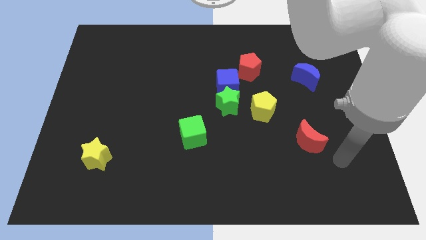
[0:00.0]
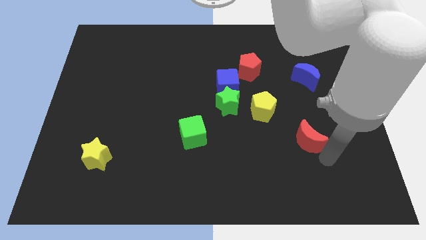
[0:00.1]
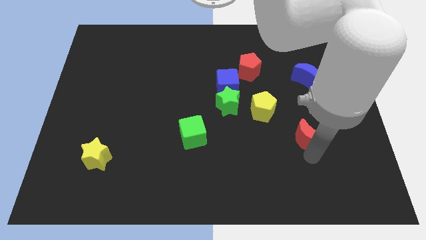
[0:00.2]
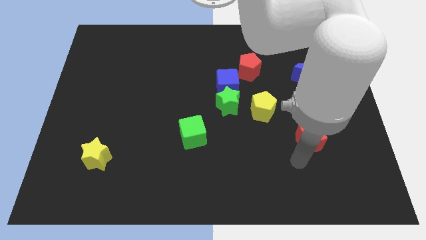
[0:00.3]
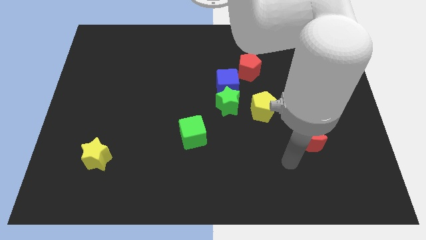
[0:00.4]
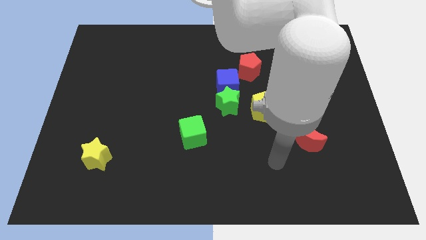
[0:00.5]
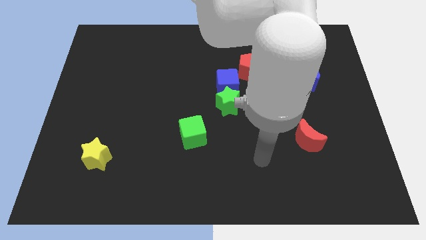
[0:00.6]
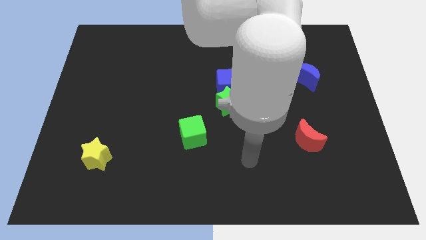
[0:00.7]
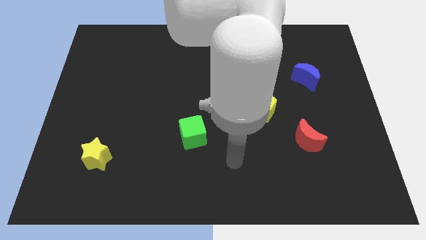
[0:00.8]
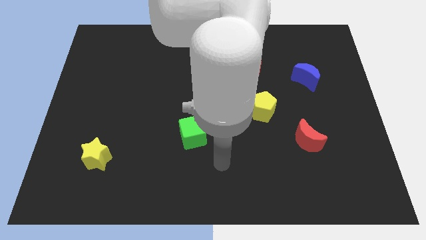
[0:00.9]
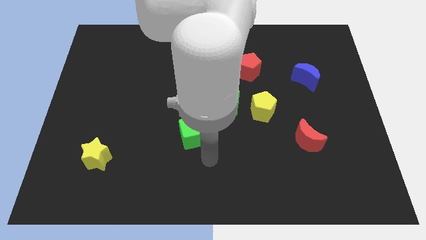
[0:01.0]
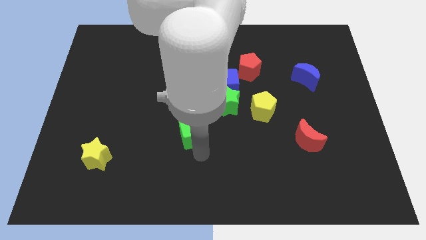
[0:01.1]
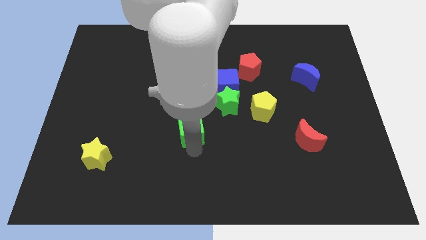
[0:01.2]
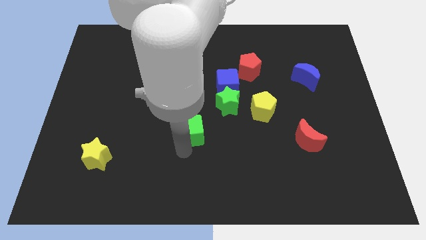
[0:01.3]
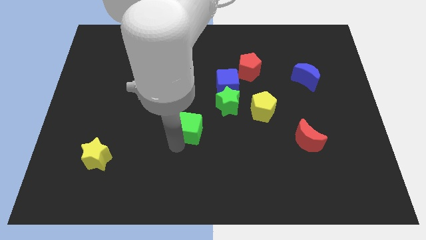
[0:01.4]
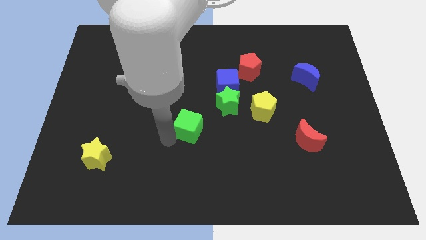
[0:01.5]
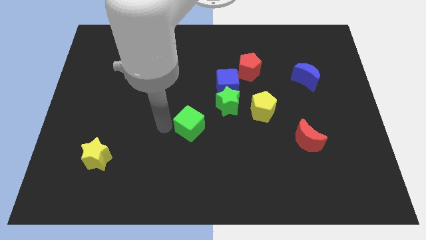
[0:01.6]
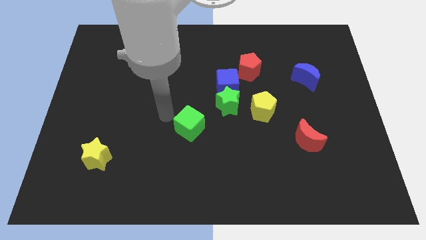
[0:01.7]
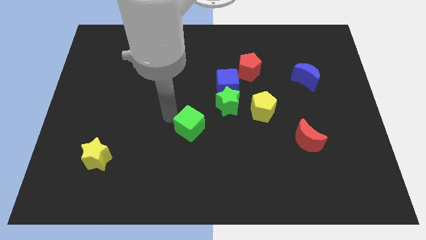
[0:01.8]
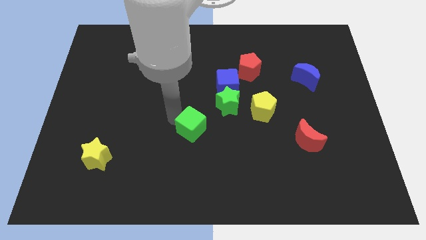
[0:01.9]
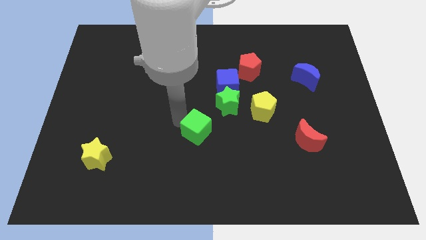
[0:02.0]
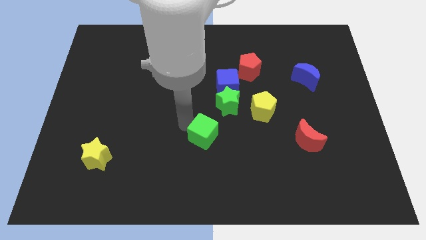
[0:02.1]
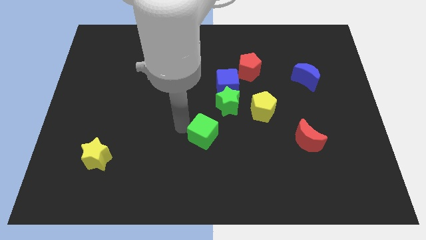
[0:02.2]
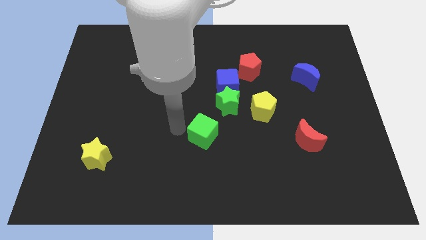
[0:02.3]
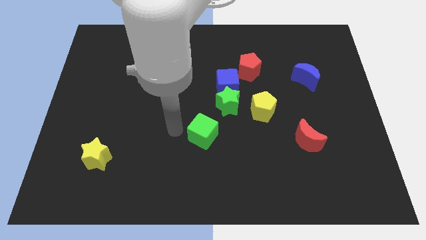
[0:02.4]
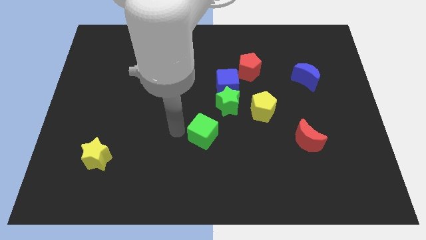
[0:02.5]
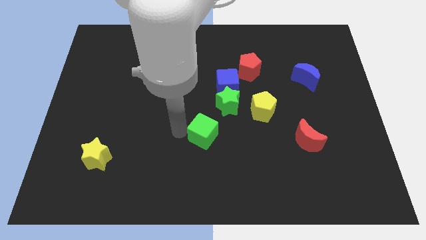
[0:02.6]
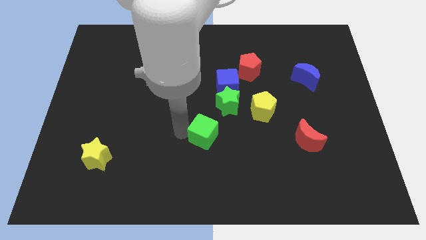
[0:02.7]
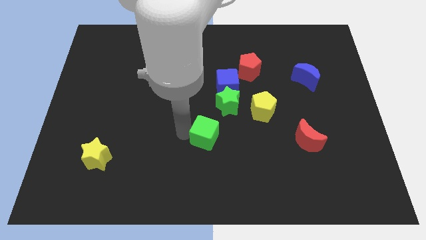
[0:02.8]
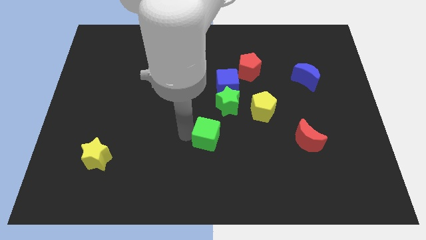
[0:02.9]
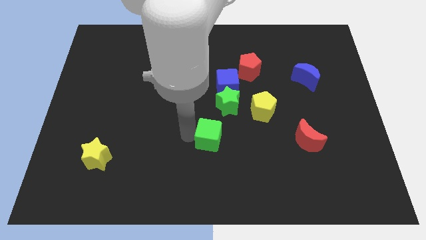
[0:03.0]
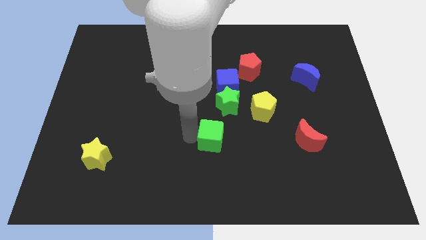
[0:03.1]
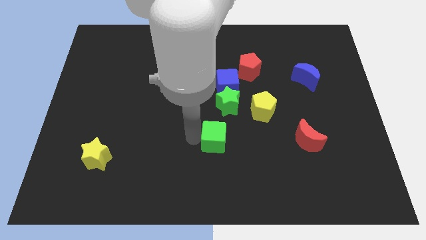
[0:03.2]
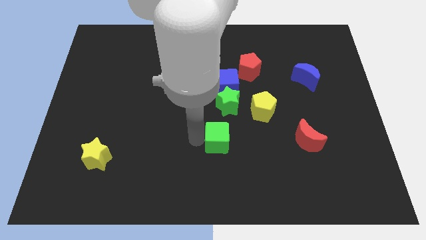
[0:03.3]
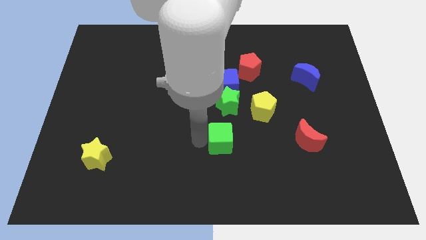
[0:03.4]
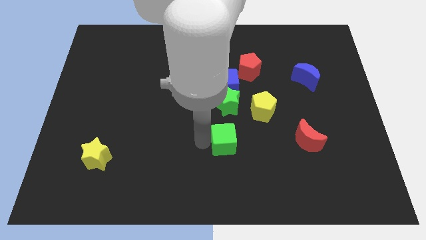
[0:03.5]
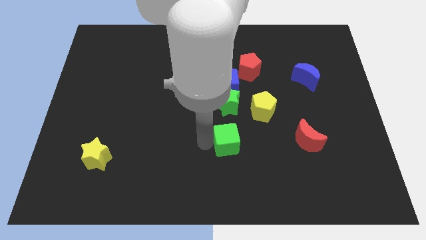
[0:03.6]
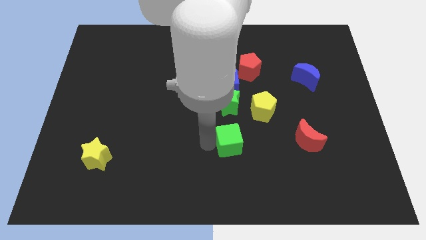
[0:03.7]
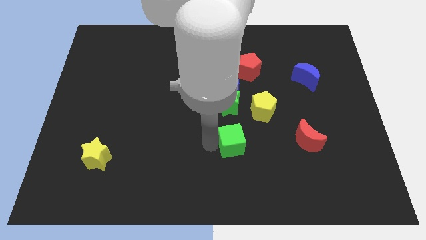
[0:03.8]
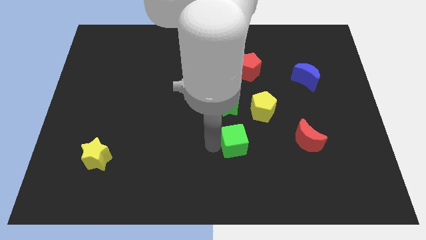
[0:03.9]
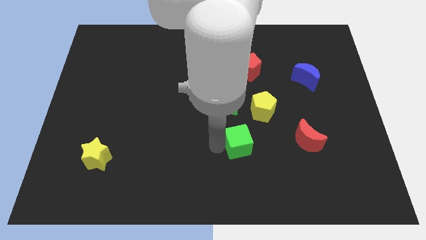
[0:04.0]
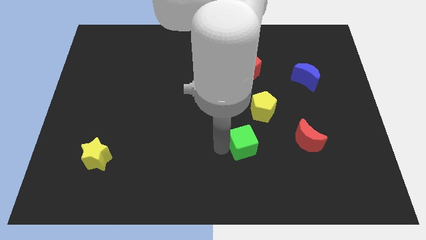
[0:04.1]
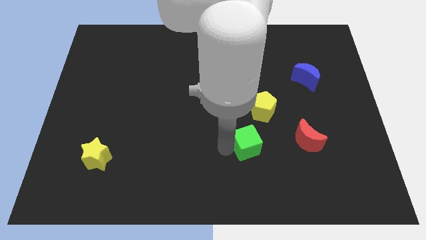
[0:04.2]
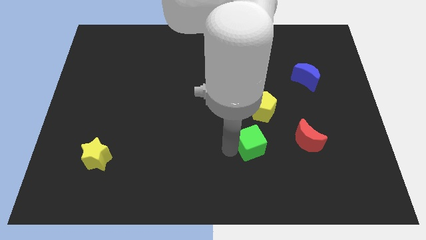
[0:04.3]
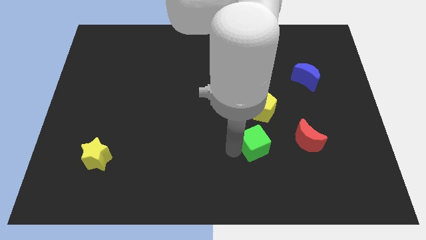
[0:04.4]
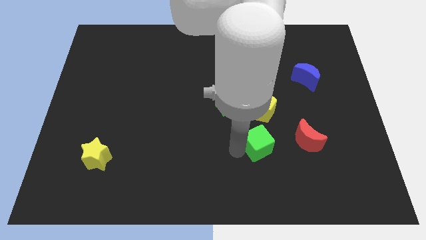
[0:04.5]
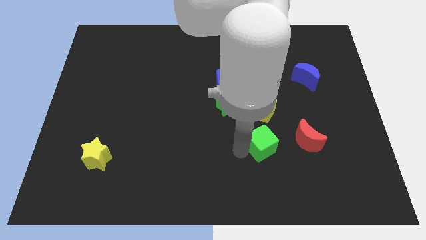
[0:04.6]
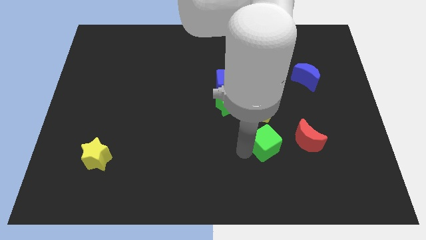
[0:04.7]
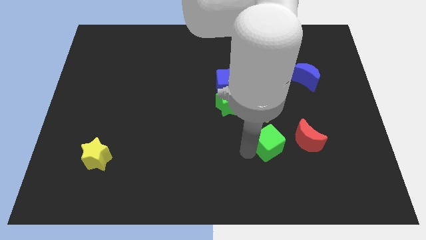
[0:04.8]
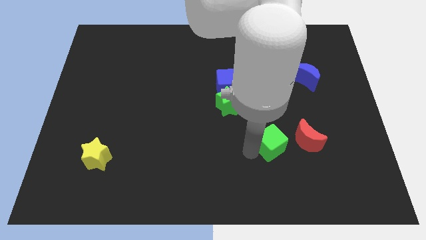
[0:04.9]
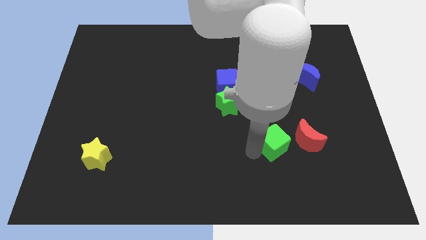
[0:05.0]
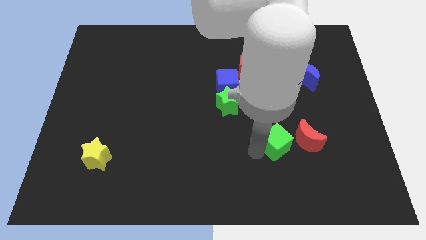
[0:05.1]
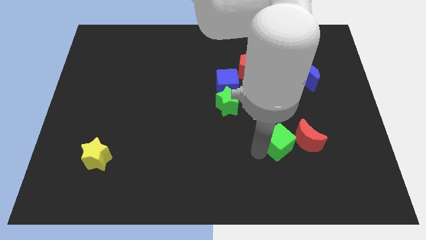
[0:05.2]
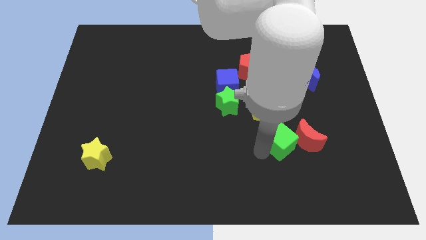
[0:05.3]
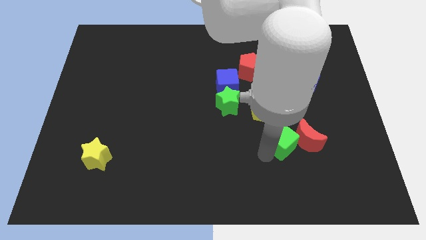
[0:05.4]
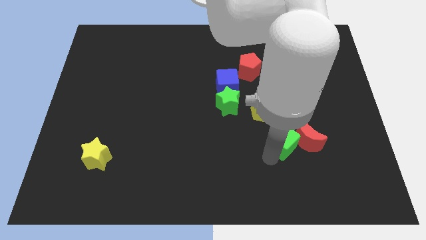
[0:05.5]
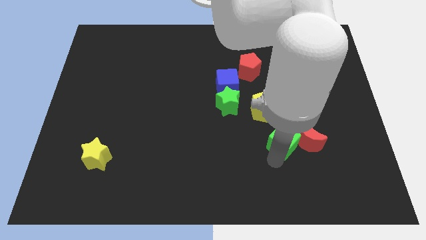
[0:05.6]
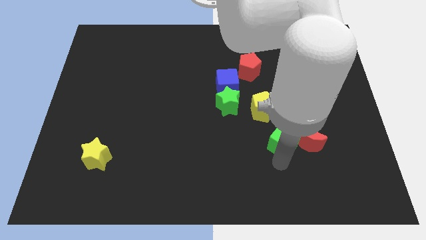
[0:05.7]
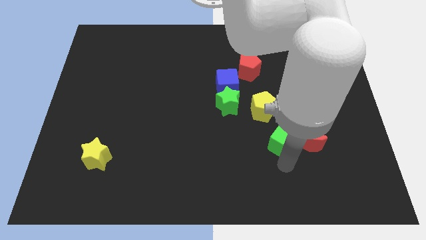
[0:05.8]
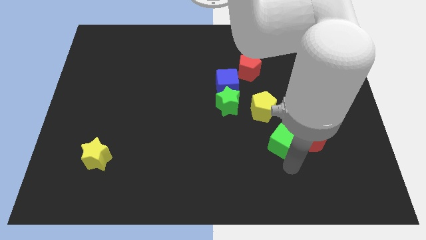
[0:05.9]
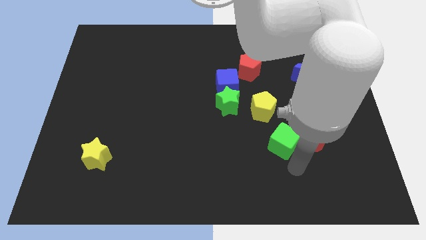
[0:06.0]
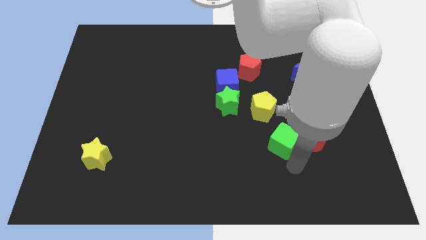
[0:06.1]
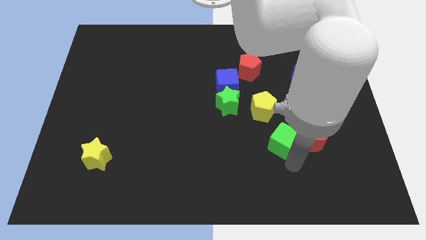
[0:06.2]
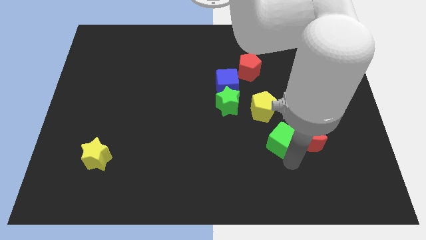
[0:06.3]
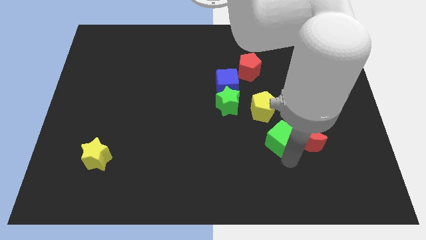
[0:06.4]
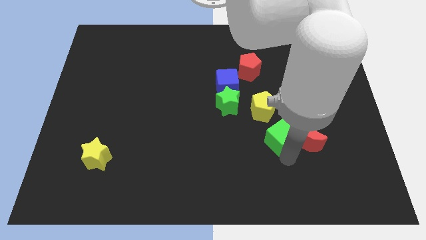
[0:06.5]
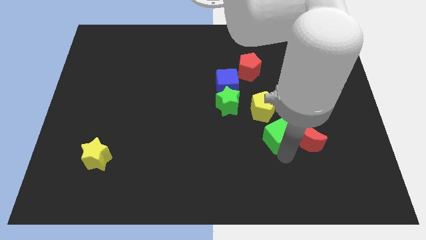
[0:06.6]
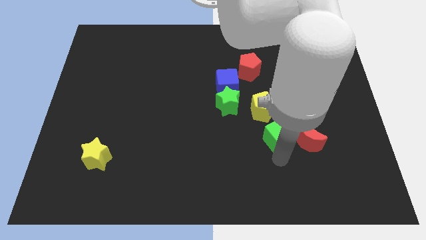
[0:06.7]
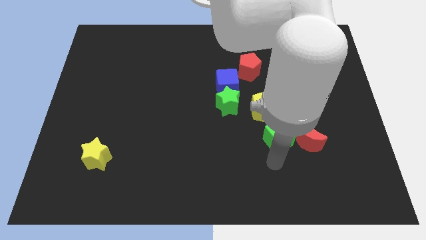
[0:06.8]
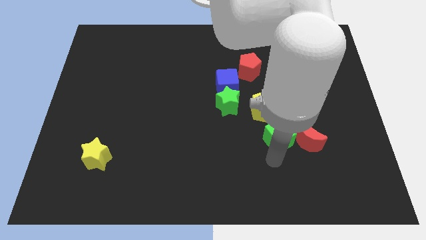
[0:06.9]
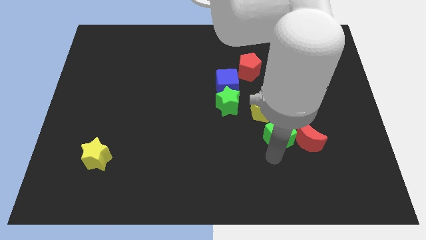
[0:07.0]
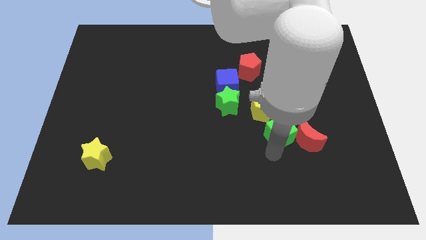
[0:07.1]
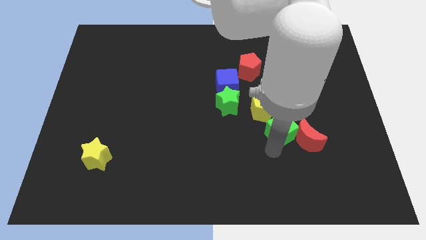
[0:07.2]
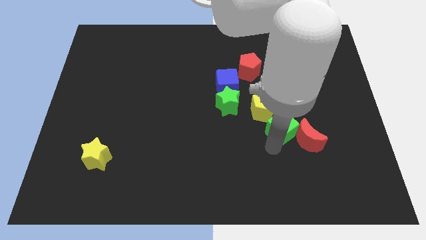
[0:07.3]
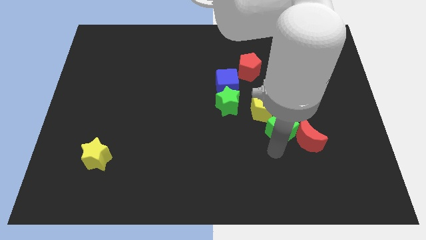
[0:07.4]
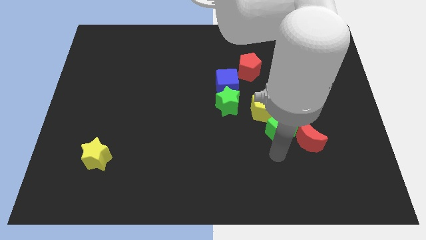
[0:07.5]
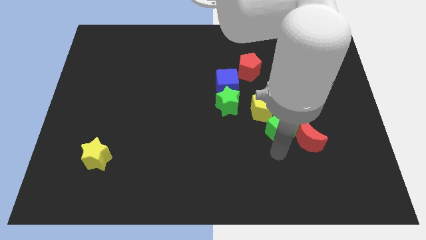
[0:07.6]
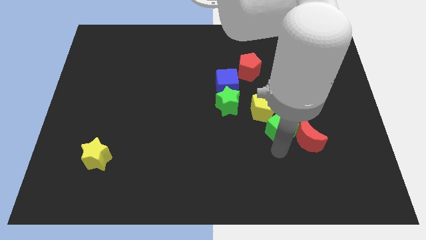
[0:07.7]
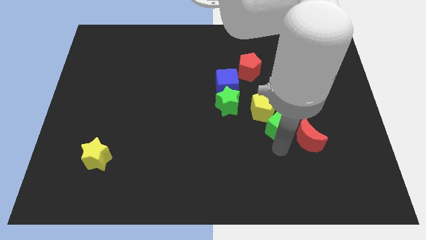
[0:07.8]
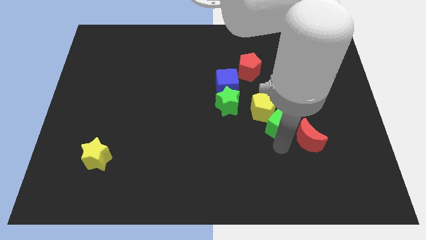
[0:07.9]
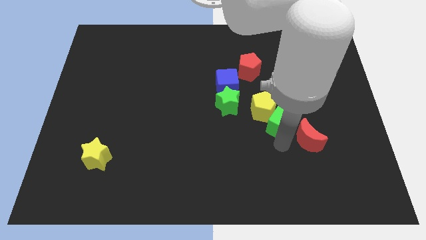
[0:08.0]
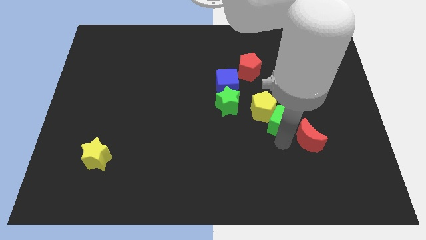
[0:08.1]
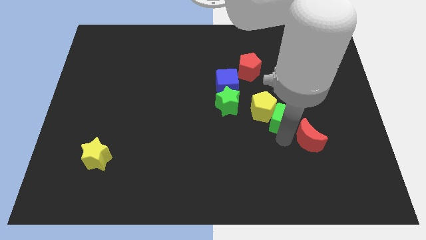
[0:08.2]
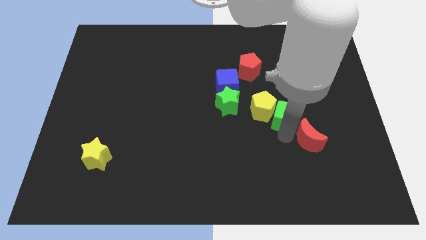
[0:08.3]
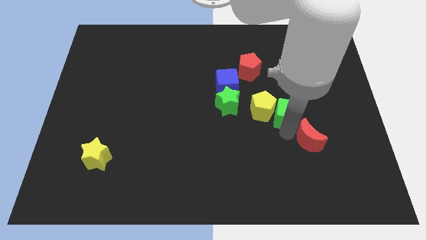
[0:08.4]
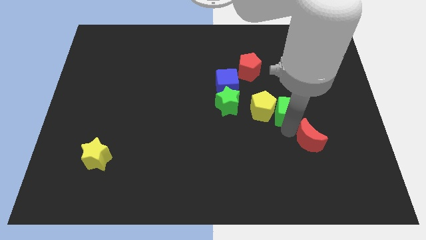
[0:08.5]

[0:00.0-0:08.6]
put the green cube to the top right side of the yellow pentagon
